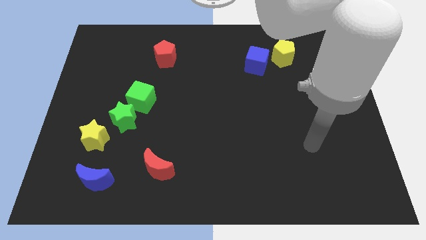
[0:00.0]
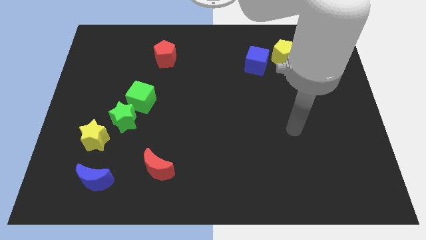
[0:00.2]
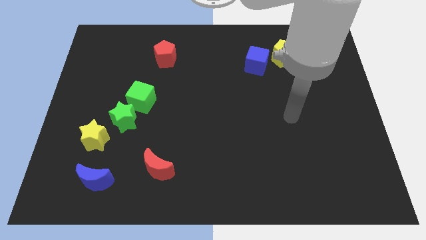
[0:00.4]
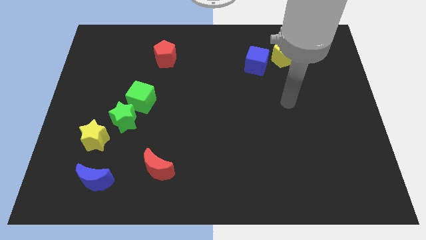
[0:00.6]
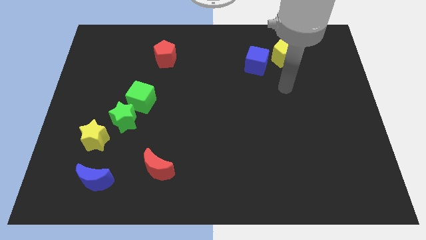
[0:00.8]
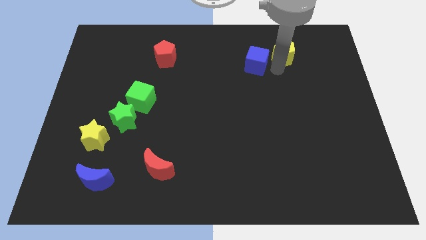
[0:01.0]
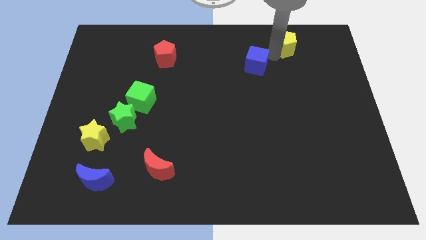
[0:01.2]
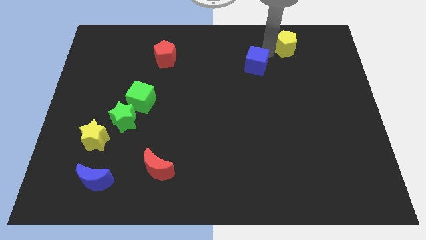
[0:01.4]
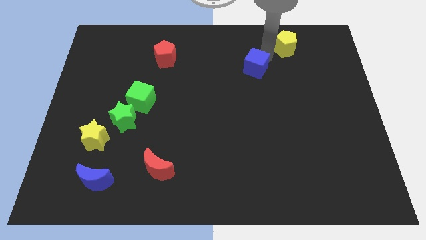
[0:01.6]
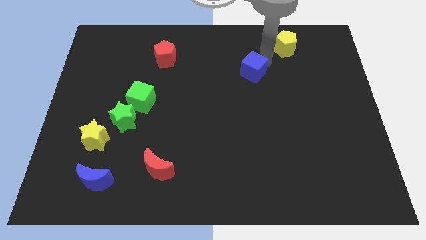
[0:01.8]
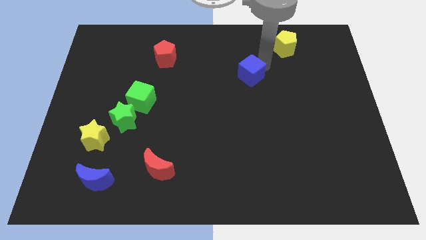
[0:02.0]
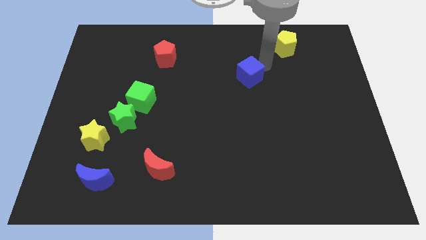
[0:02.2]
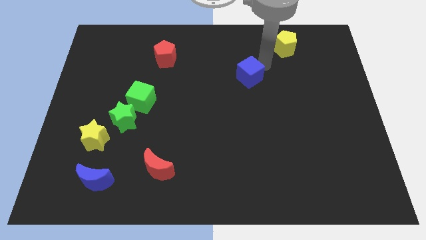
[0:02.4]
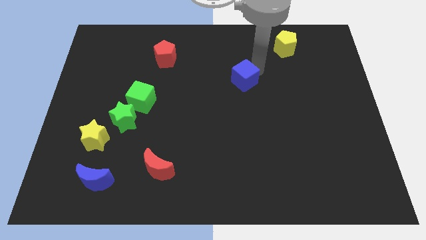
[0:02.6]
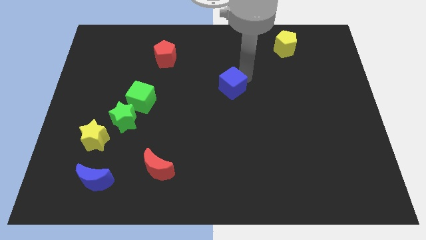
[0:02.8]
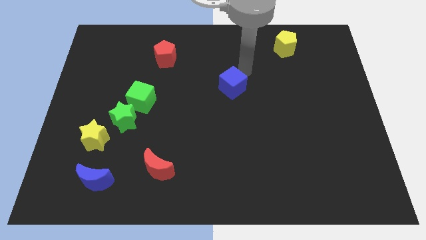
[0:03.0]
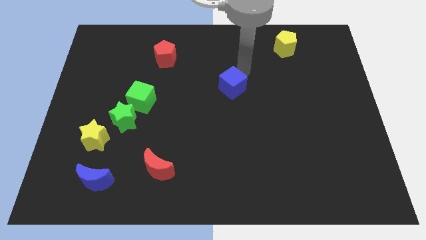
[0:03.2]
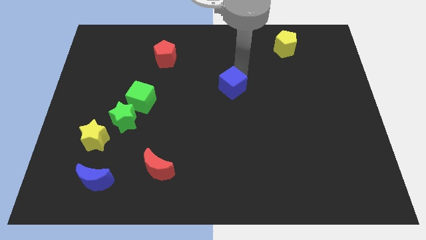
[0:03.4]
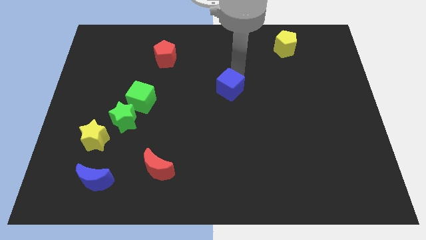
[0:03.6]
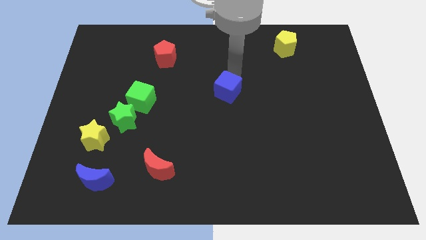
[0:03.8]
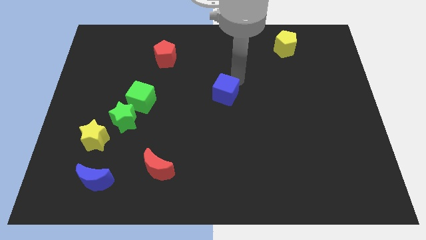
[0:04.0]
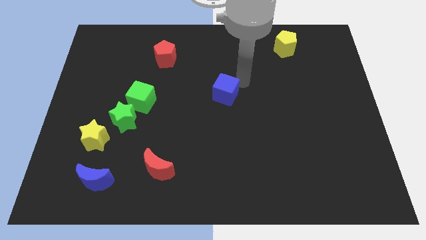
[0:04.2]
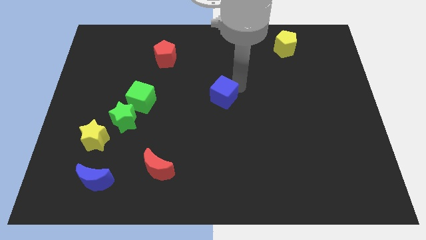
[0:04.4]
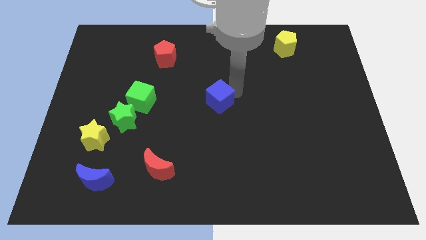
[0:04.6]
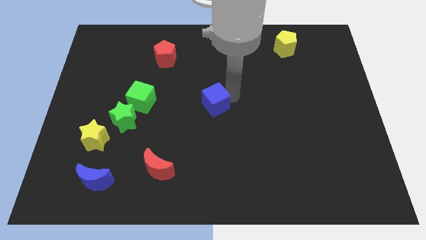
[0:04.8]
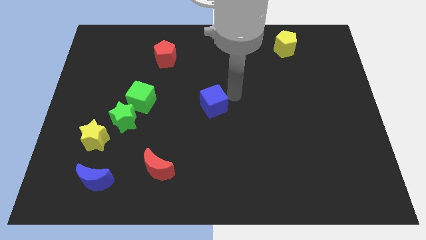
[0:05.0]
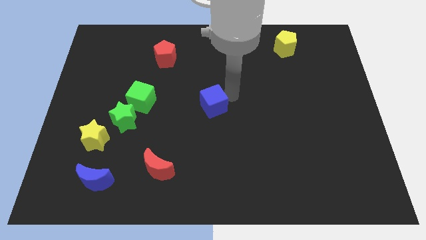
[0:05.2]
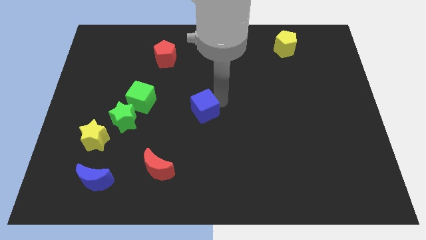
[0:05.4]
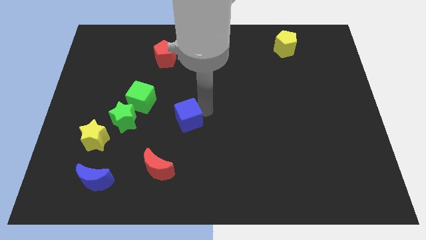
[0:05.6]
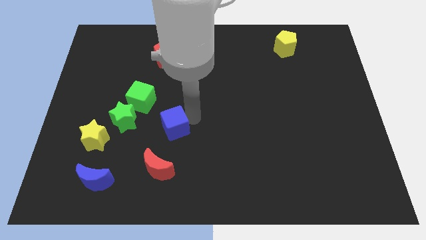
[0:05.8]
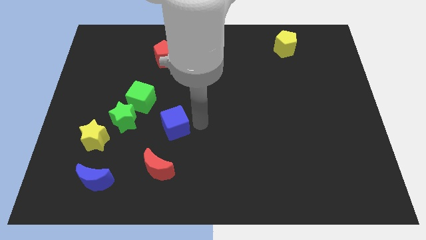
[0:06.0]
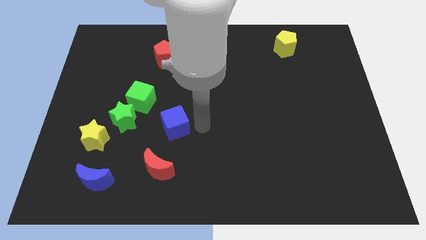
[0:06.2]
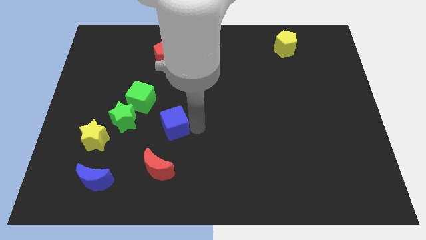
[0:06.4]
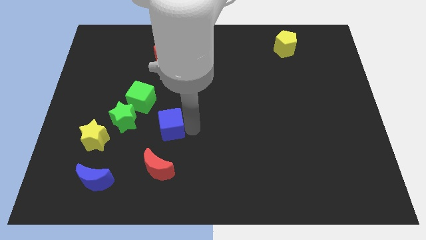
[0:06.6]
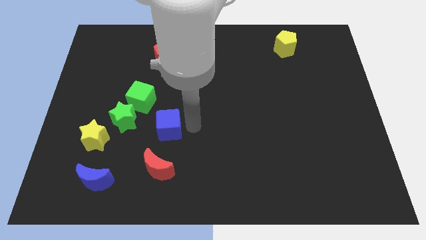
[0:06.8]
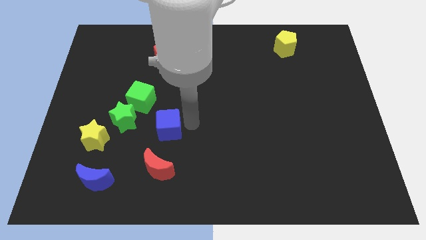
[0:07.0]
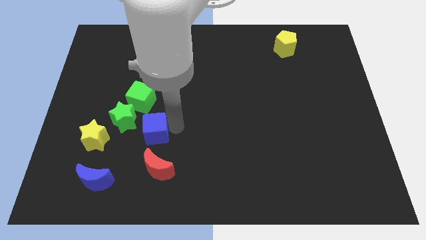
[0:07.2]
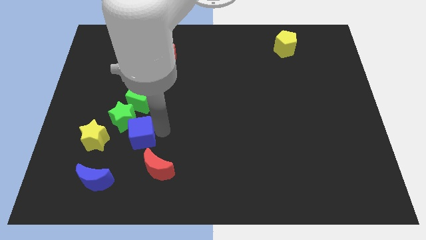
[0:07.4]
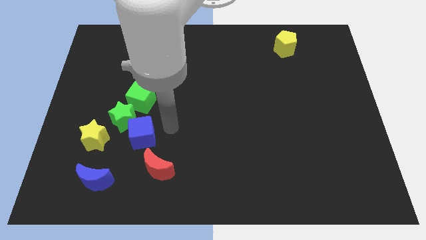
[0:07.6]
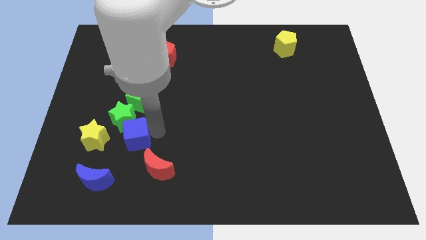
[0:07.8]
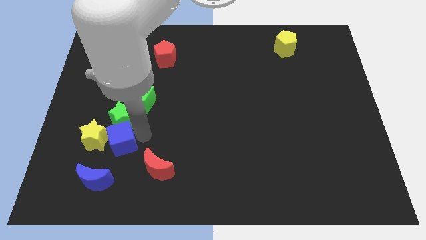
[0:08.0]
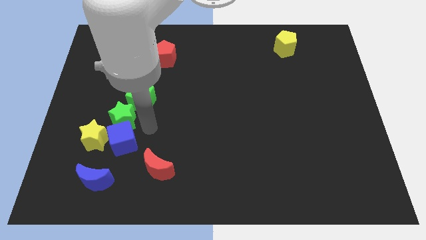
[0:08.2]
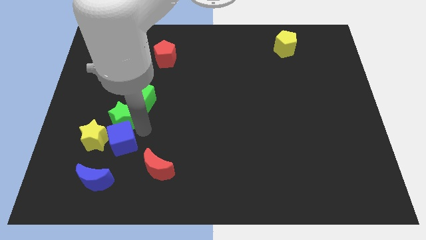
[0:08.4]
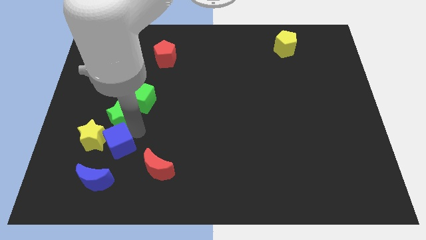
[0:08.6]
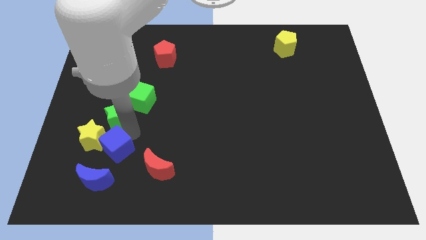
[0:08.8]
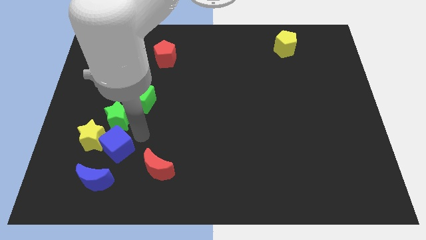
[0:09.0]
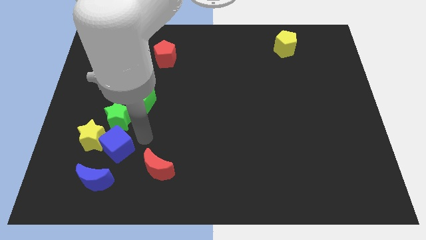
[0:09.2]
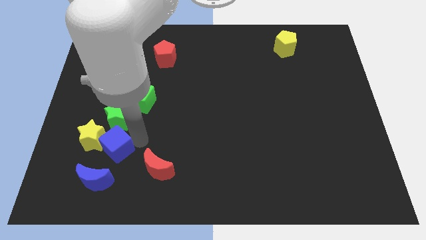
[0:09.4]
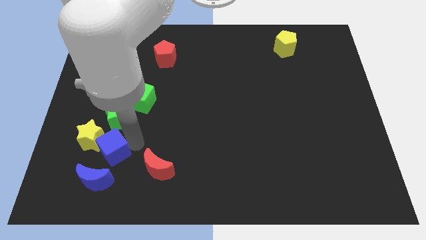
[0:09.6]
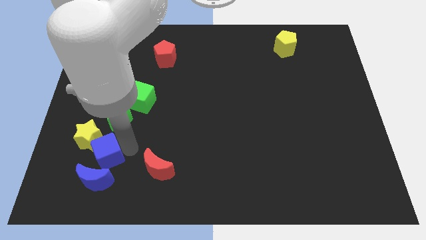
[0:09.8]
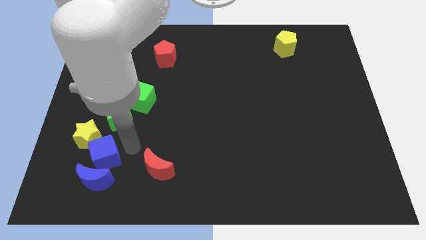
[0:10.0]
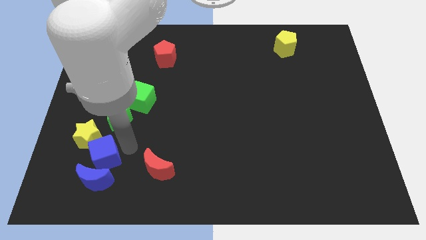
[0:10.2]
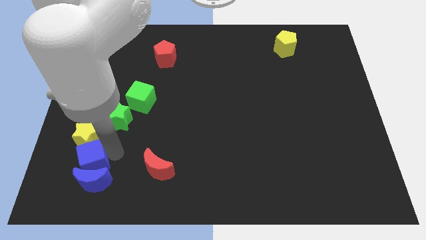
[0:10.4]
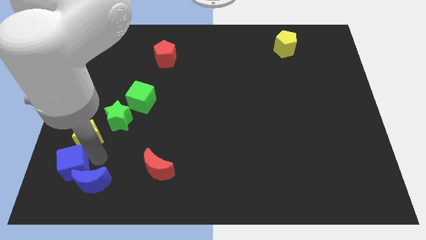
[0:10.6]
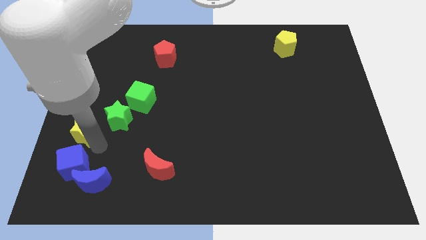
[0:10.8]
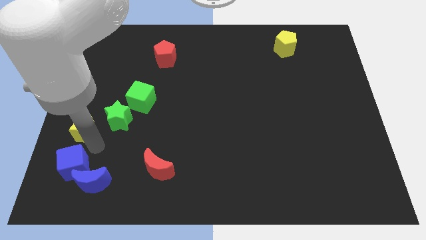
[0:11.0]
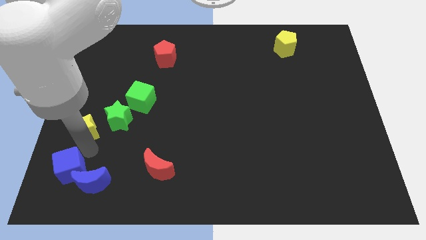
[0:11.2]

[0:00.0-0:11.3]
slide the blue cube to the bottom left corner

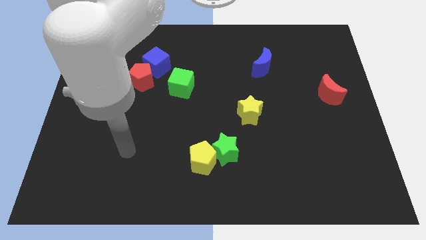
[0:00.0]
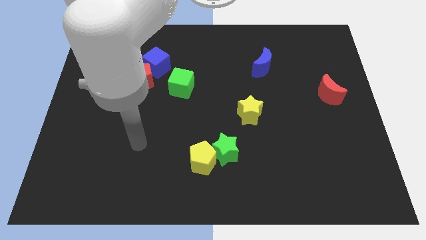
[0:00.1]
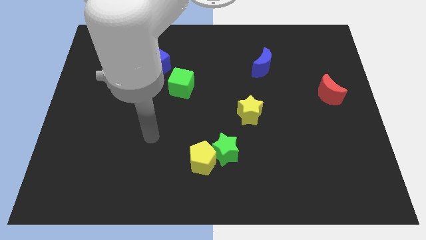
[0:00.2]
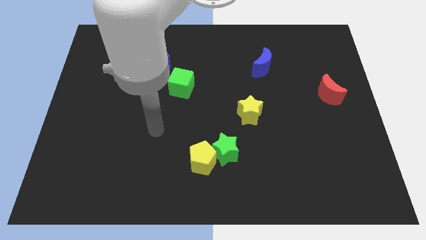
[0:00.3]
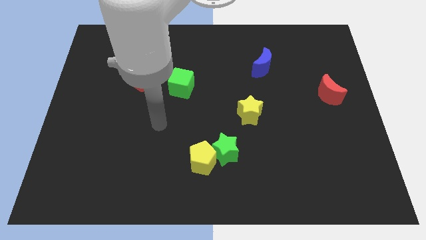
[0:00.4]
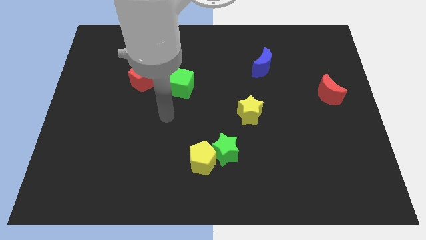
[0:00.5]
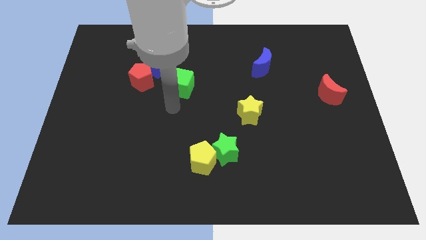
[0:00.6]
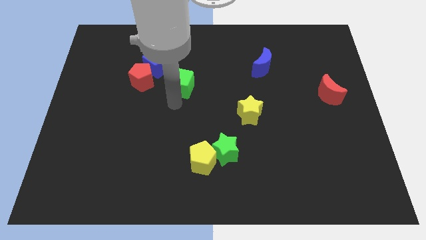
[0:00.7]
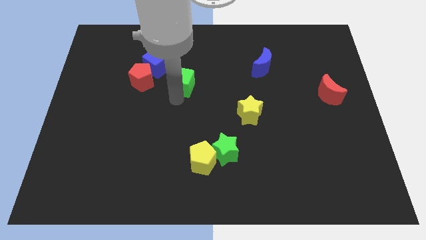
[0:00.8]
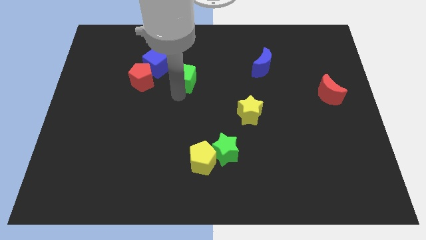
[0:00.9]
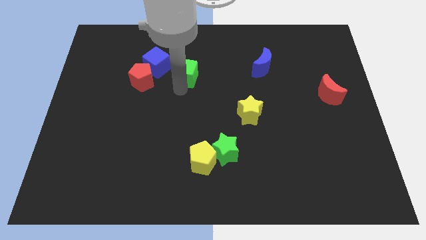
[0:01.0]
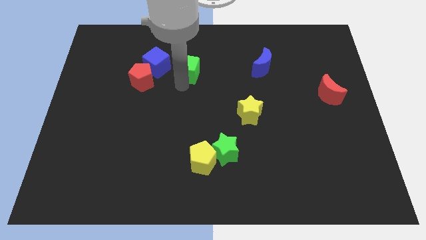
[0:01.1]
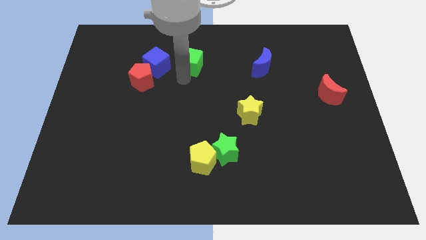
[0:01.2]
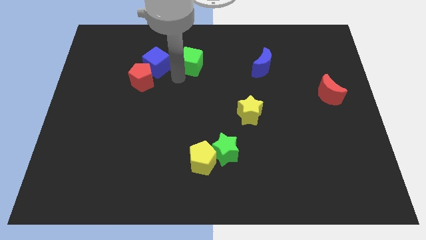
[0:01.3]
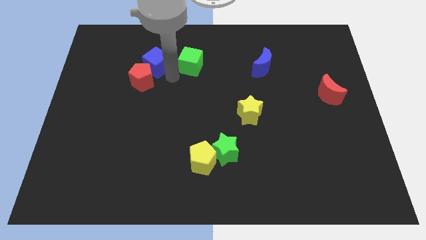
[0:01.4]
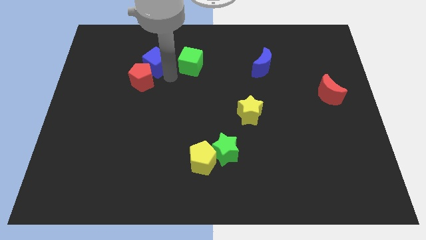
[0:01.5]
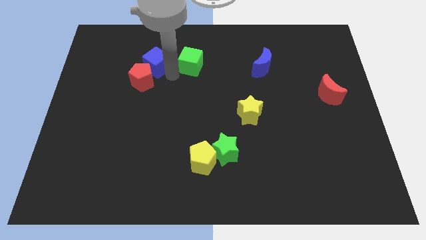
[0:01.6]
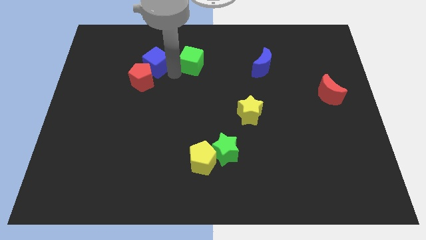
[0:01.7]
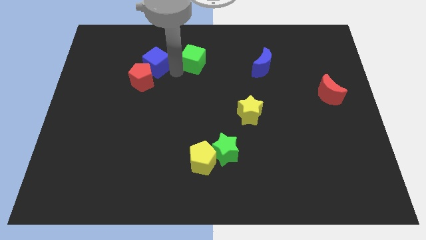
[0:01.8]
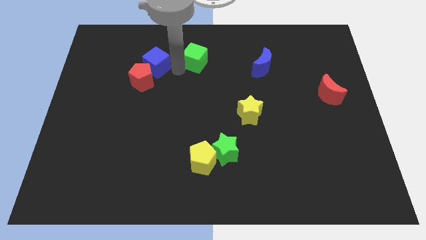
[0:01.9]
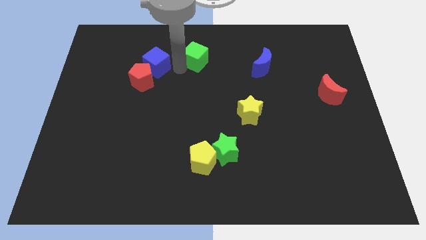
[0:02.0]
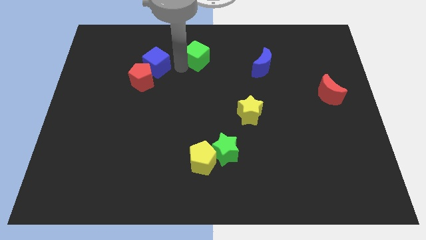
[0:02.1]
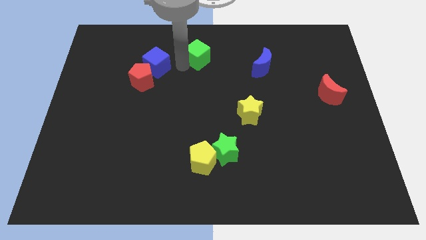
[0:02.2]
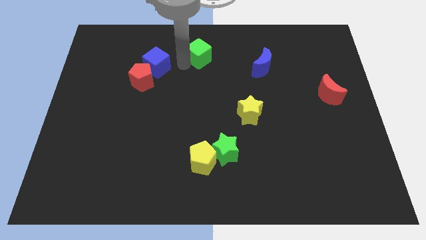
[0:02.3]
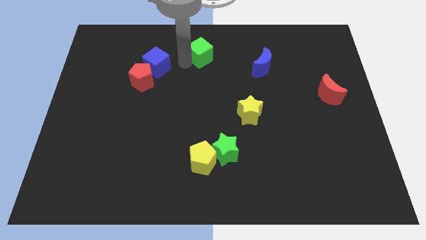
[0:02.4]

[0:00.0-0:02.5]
put the green cube to the top side
